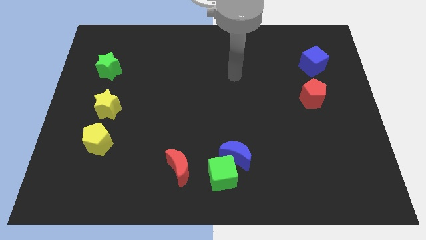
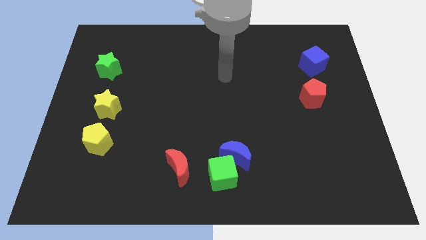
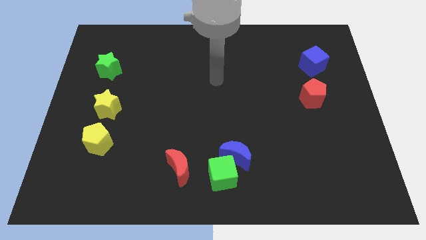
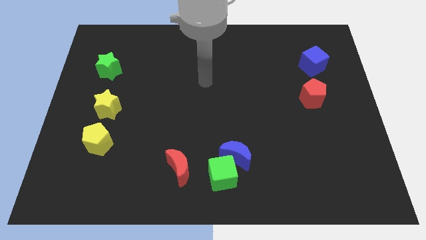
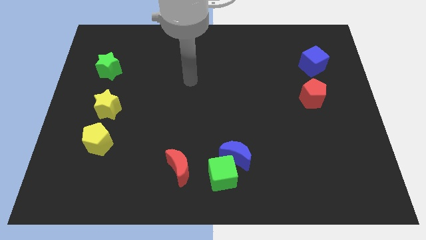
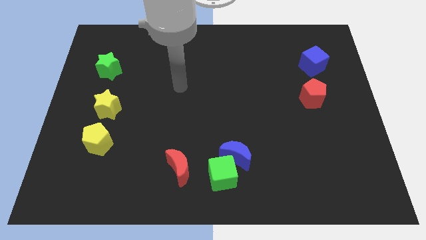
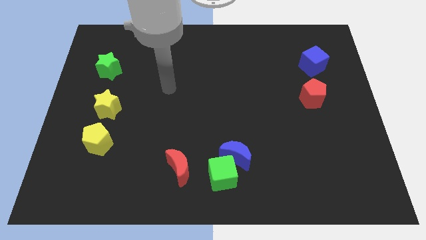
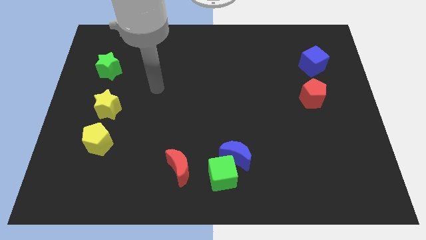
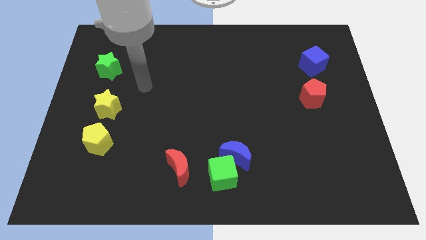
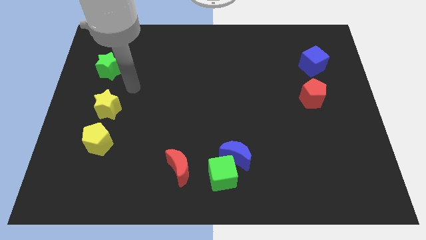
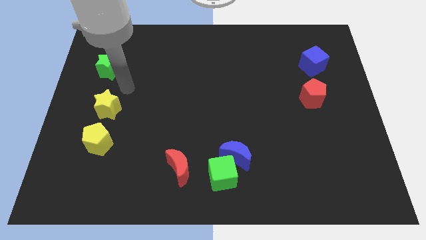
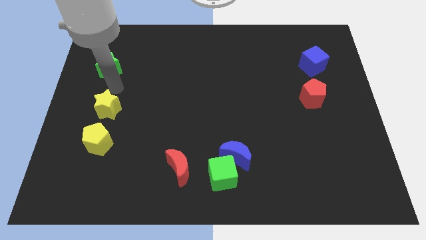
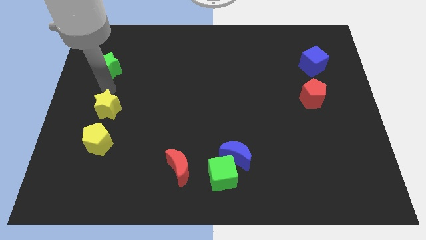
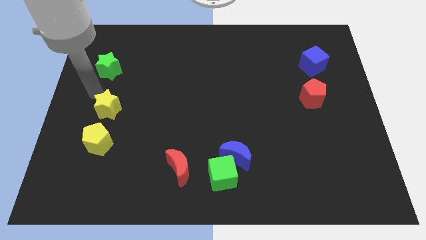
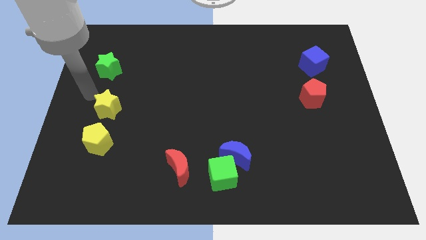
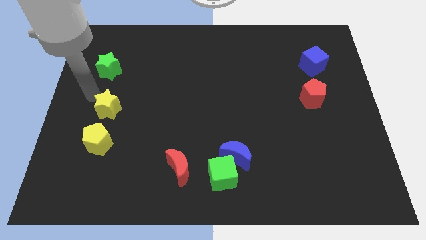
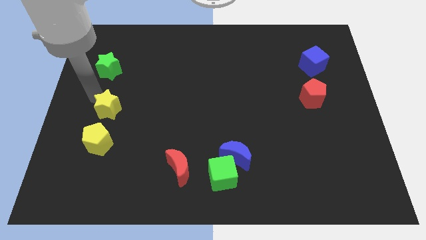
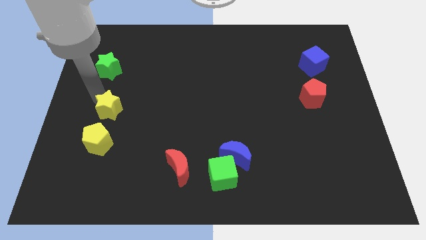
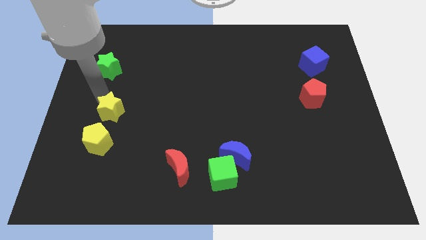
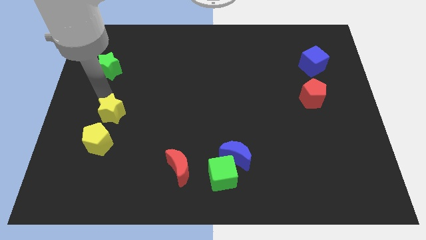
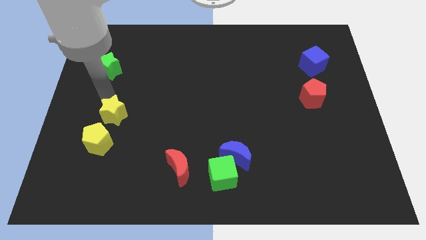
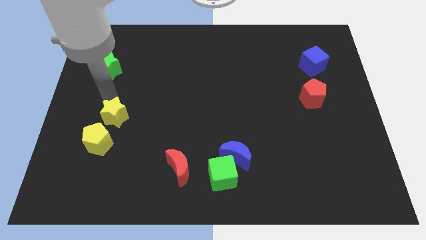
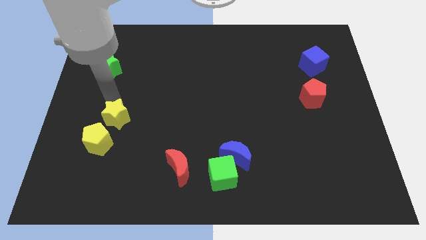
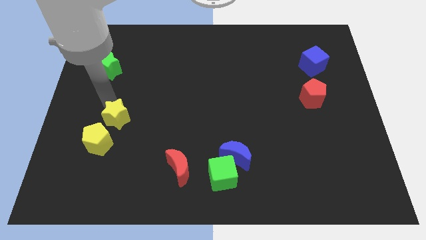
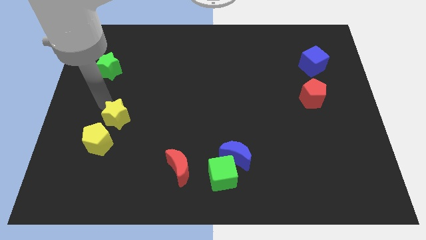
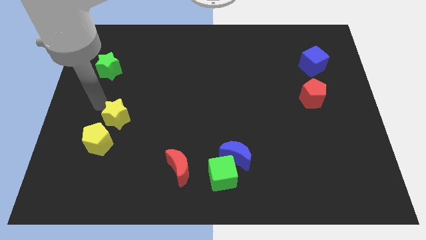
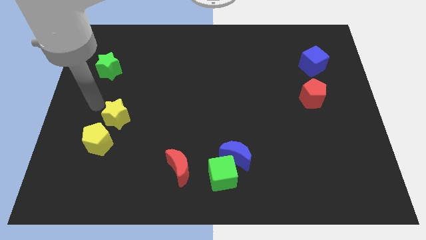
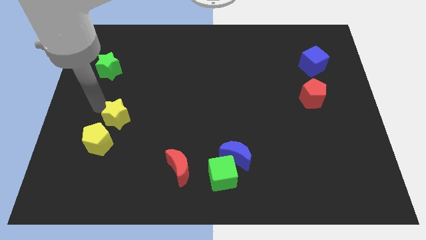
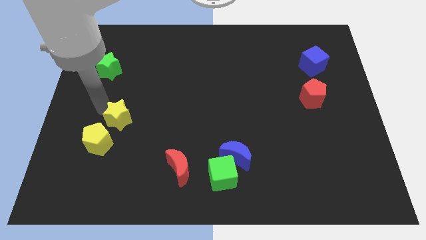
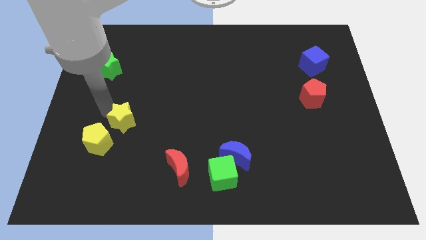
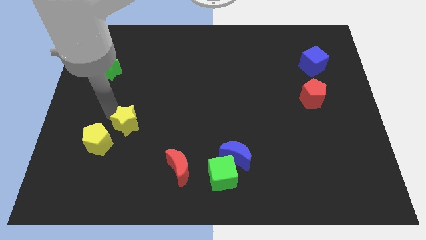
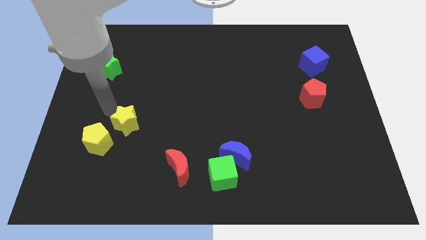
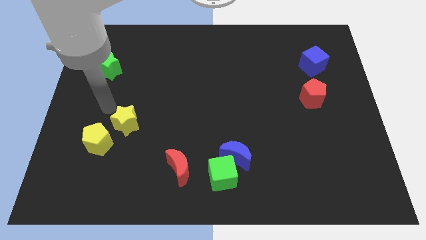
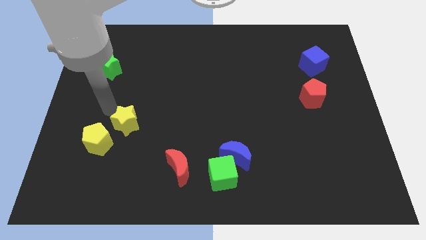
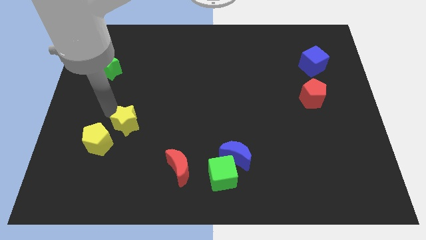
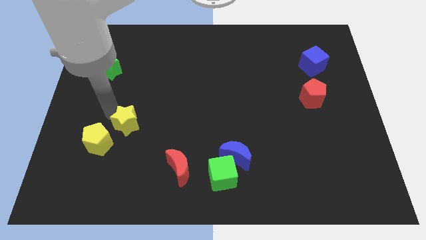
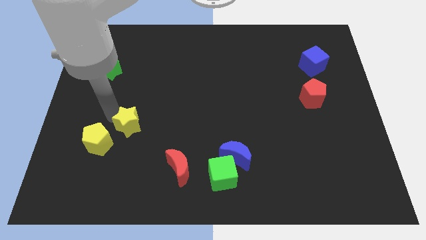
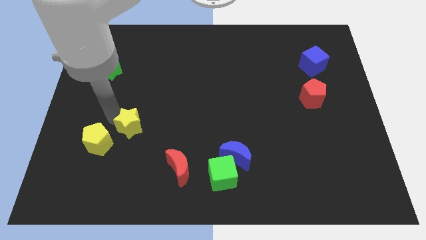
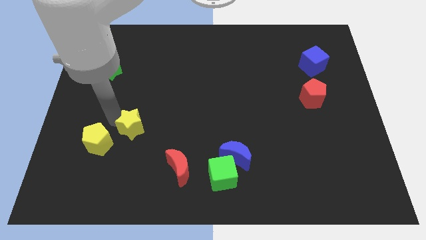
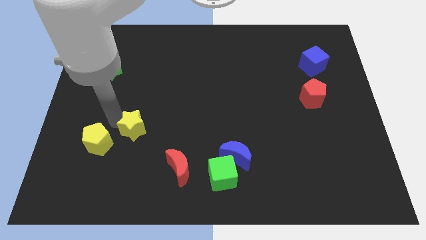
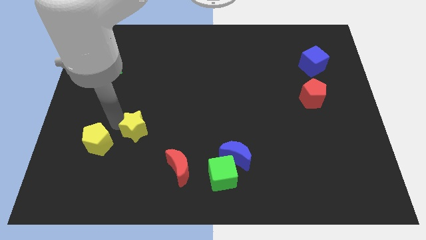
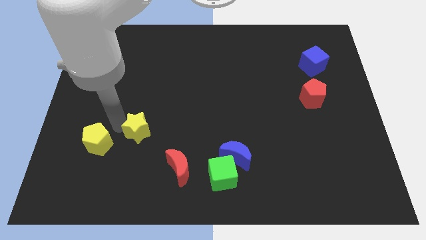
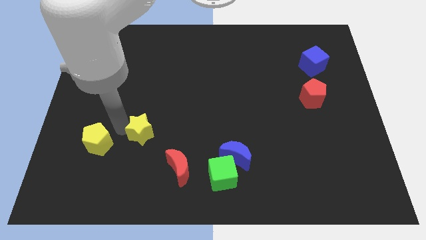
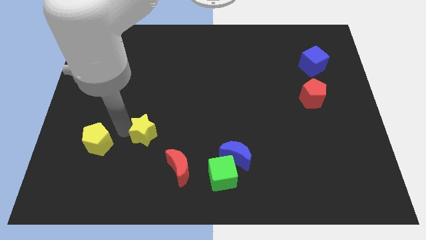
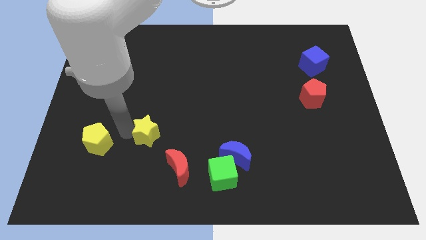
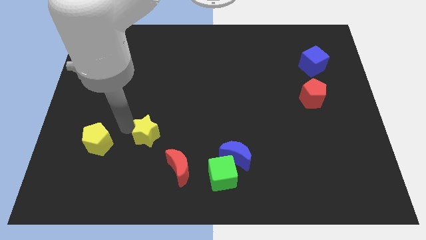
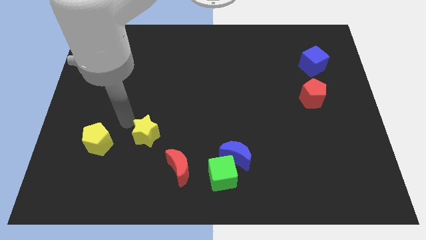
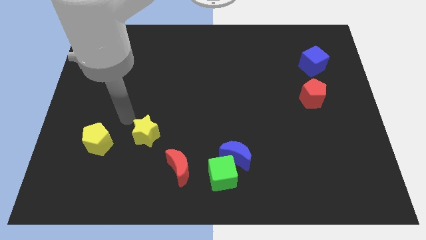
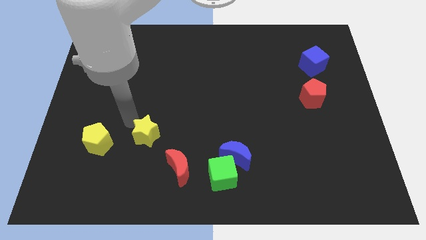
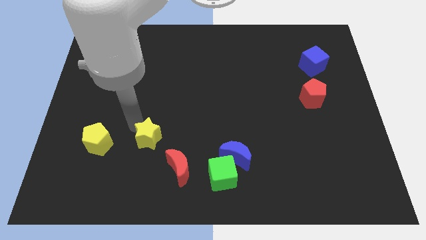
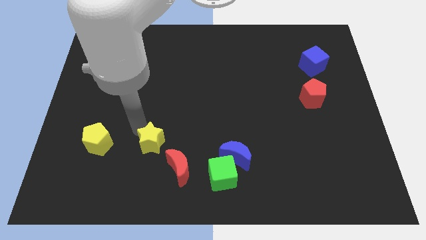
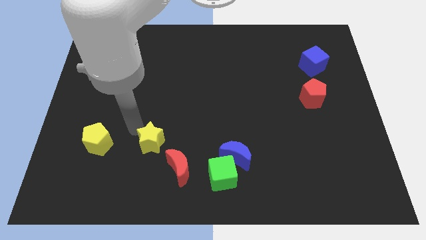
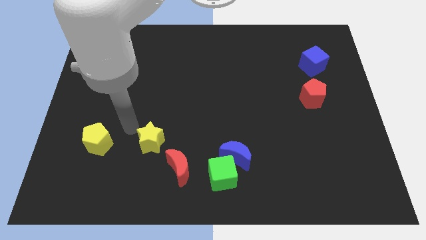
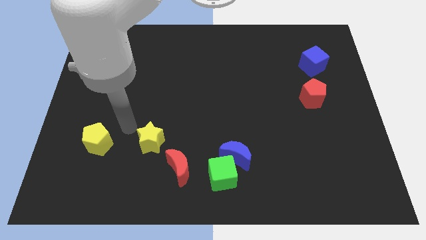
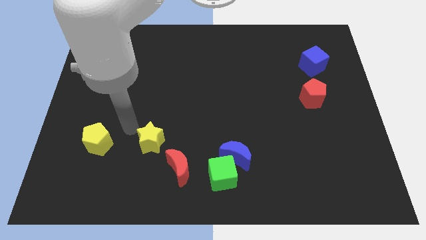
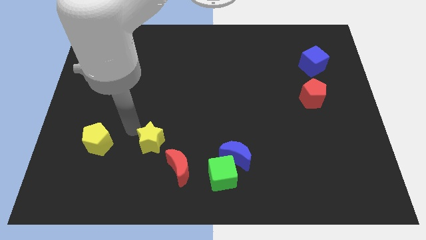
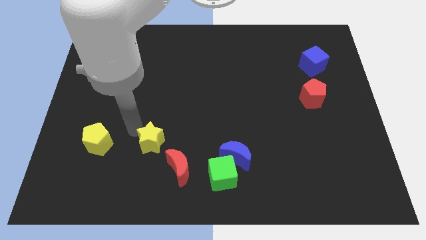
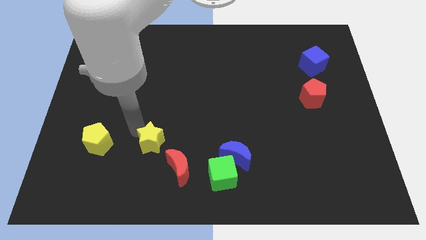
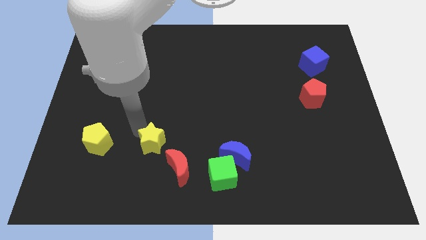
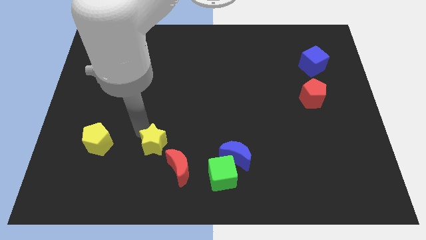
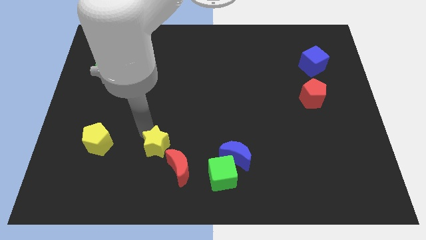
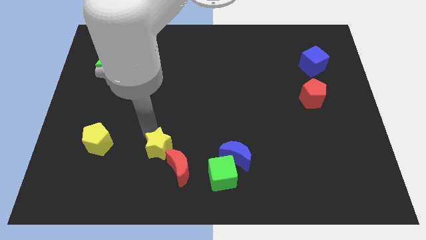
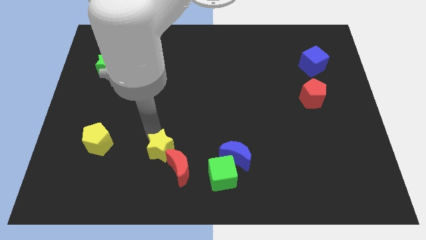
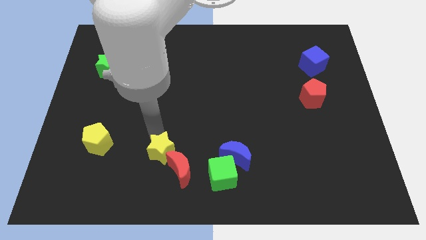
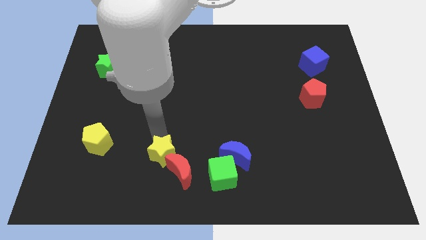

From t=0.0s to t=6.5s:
slide the yellow star to the red moon
